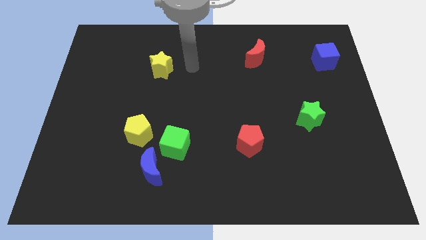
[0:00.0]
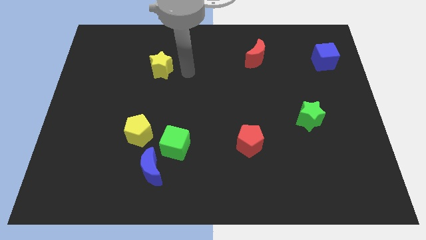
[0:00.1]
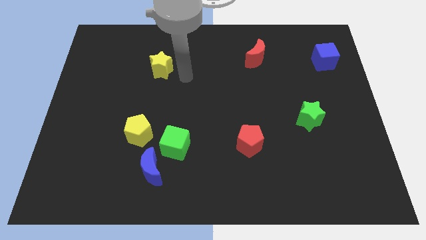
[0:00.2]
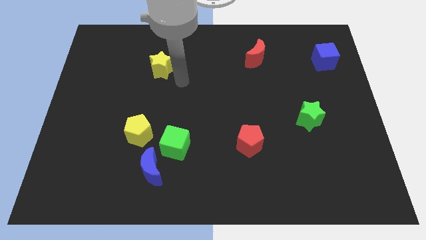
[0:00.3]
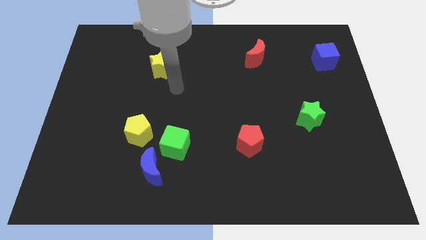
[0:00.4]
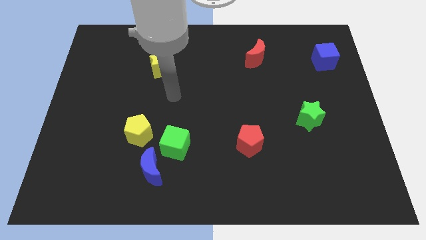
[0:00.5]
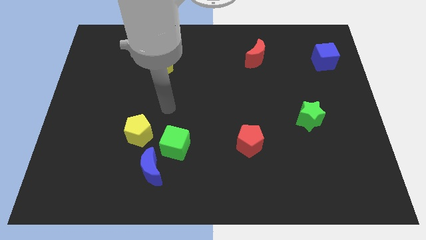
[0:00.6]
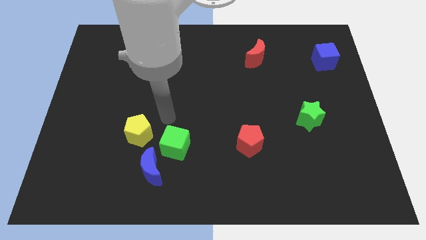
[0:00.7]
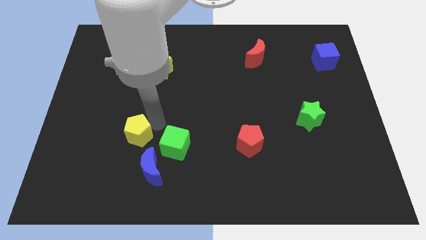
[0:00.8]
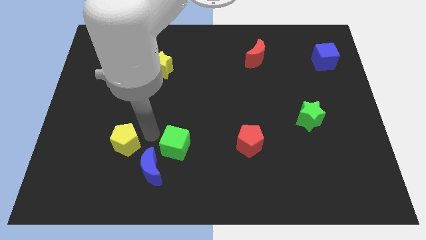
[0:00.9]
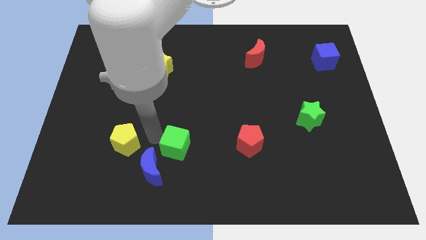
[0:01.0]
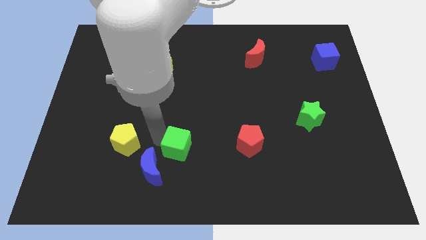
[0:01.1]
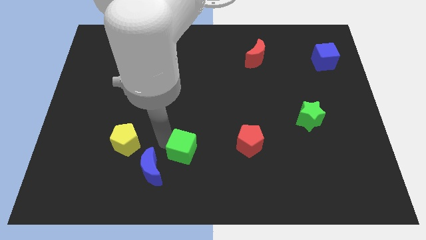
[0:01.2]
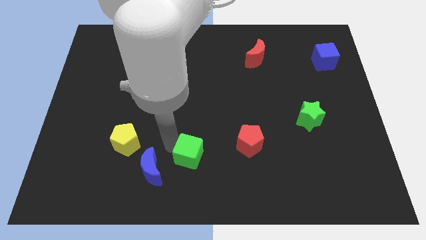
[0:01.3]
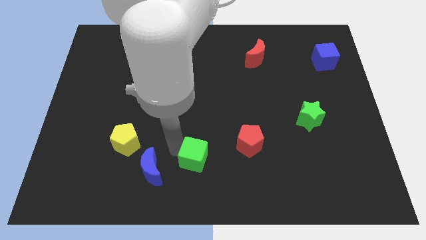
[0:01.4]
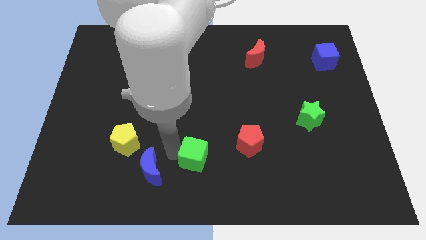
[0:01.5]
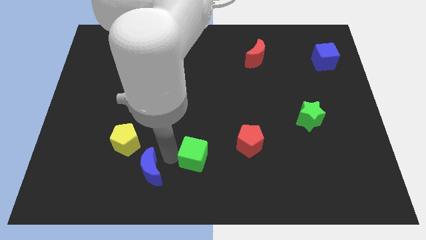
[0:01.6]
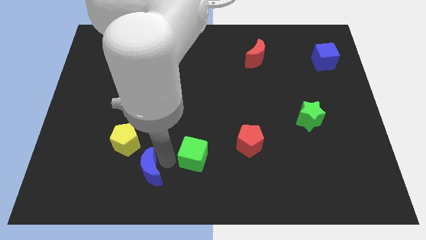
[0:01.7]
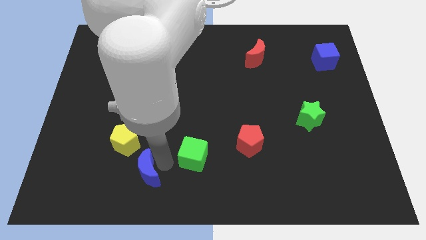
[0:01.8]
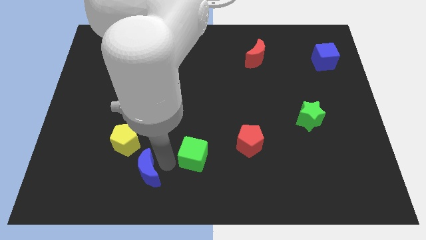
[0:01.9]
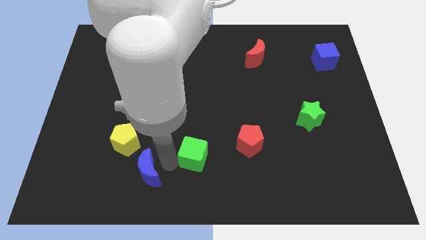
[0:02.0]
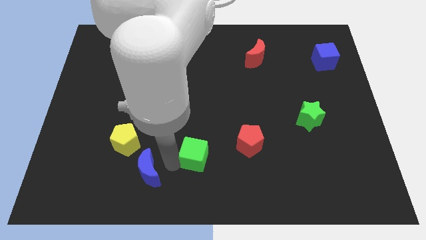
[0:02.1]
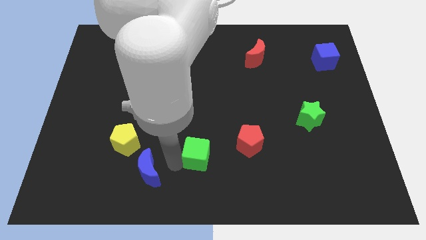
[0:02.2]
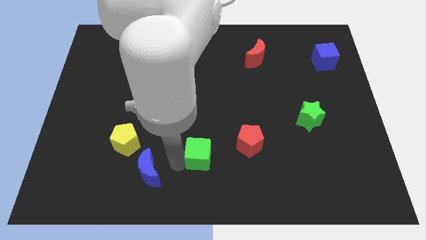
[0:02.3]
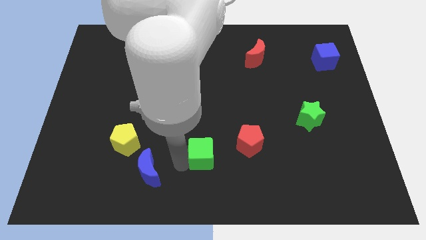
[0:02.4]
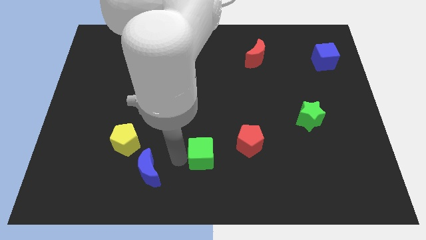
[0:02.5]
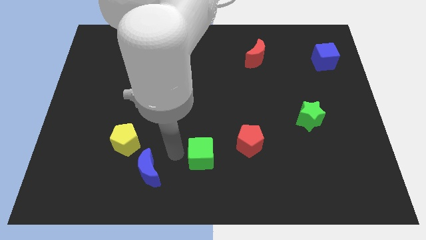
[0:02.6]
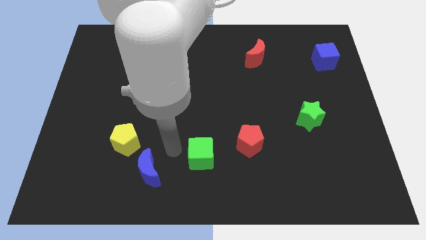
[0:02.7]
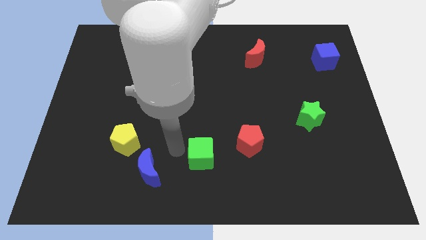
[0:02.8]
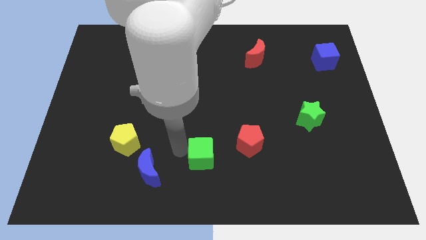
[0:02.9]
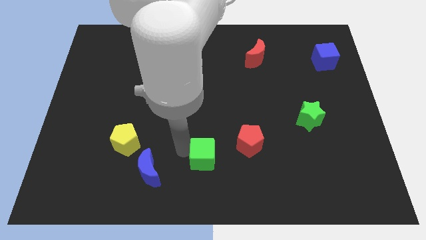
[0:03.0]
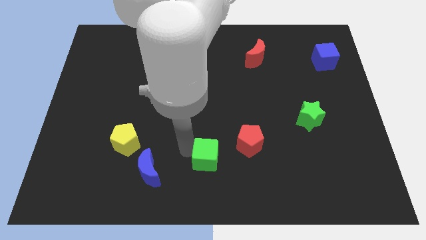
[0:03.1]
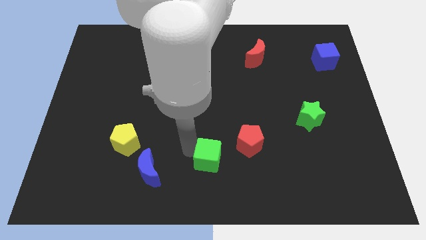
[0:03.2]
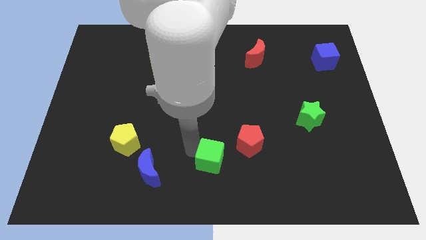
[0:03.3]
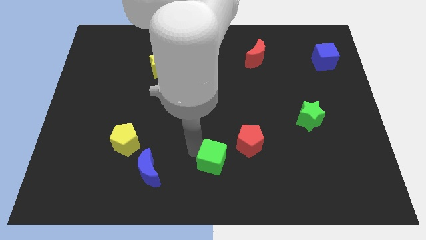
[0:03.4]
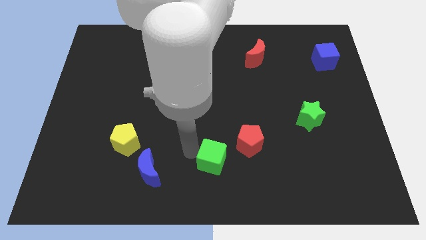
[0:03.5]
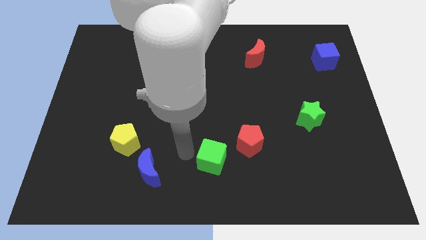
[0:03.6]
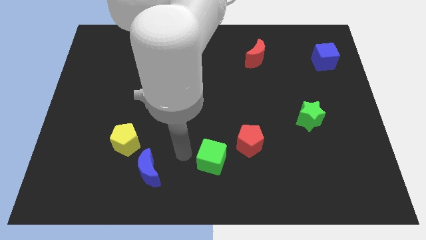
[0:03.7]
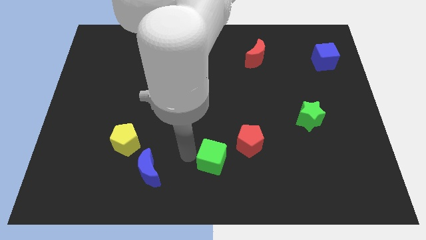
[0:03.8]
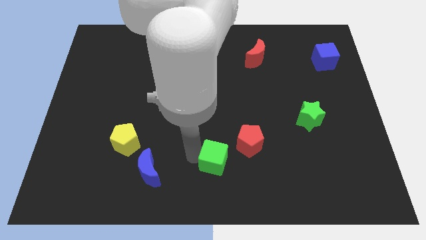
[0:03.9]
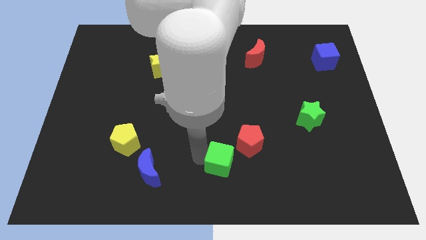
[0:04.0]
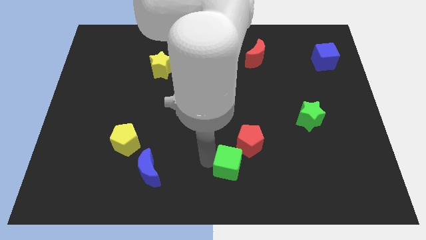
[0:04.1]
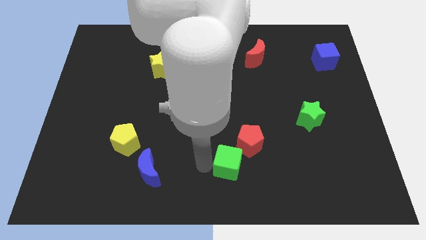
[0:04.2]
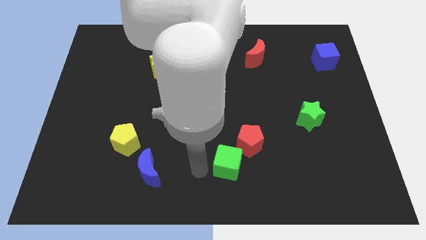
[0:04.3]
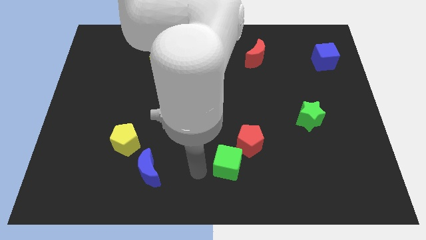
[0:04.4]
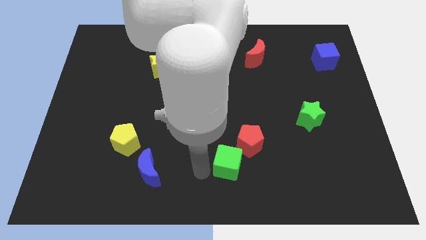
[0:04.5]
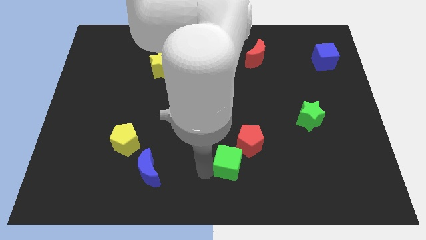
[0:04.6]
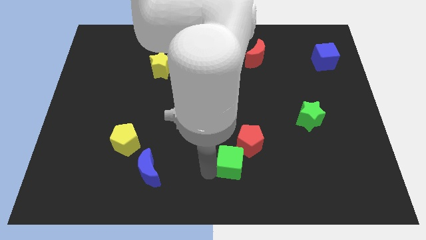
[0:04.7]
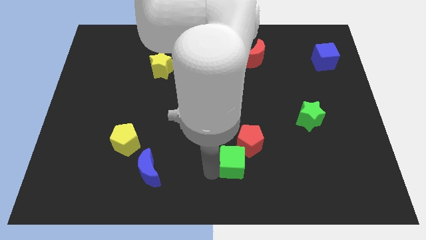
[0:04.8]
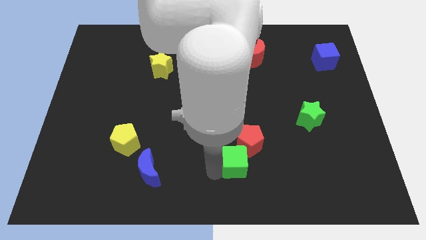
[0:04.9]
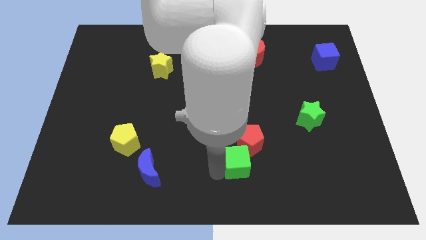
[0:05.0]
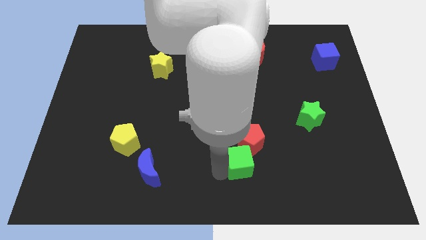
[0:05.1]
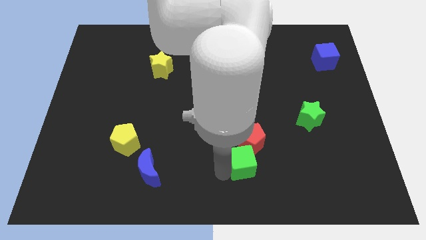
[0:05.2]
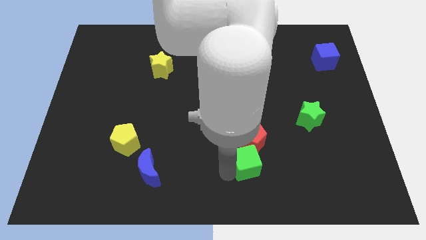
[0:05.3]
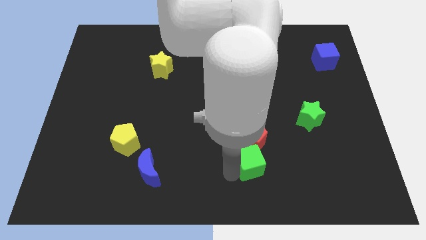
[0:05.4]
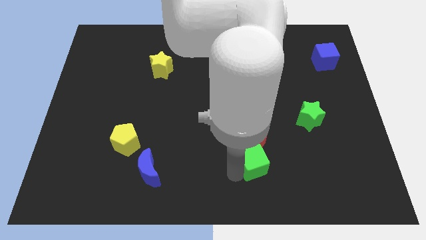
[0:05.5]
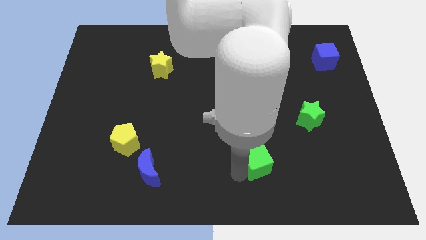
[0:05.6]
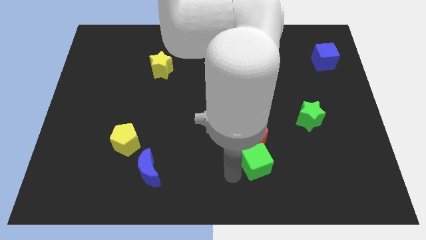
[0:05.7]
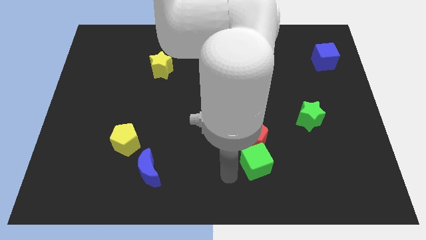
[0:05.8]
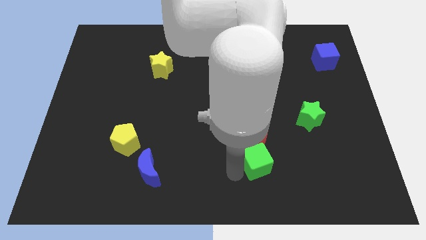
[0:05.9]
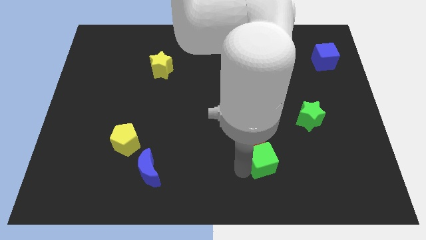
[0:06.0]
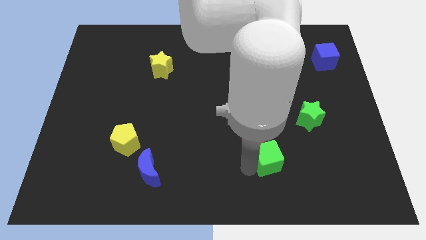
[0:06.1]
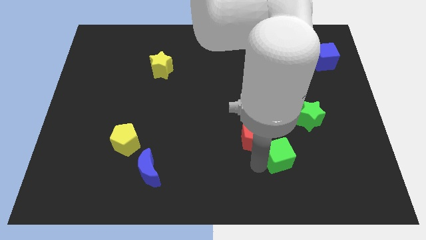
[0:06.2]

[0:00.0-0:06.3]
slide the green cube to the right

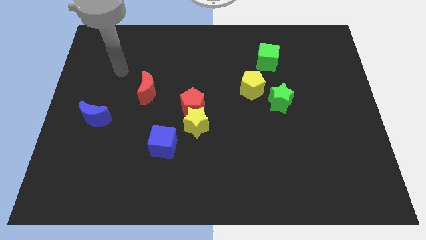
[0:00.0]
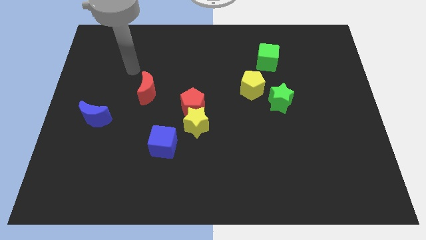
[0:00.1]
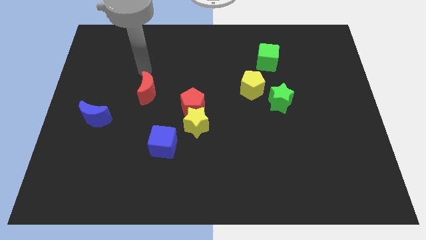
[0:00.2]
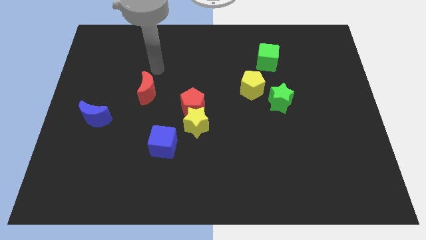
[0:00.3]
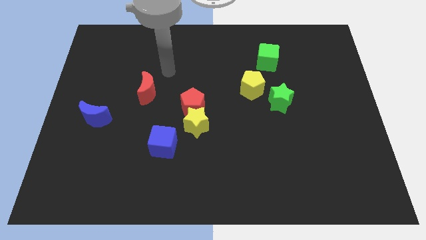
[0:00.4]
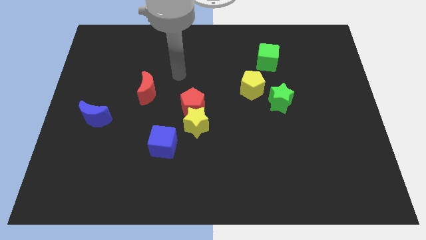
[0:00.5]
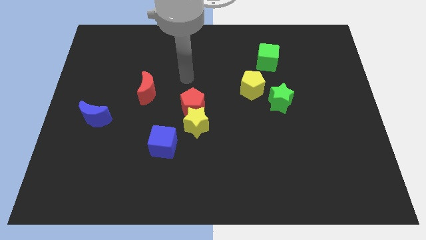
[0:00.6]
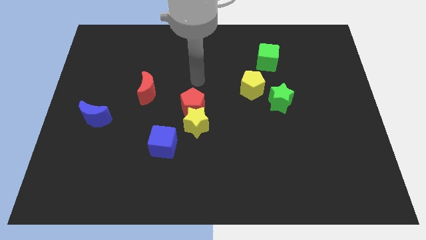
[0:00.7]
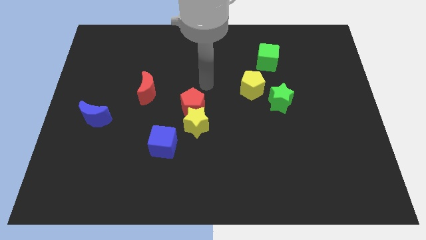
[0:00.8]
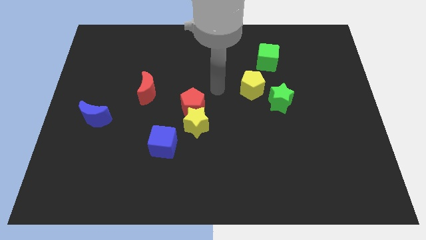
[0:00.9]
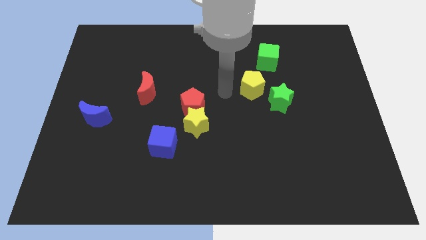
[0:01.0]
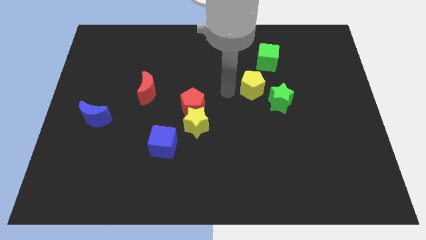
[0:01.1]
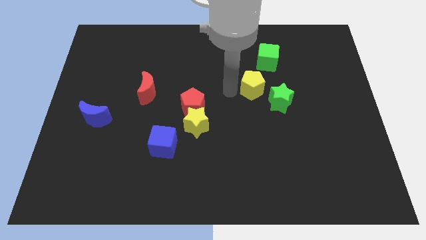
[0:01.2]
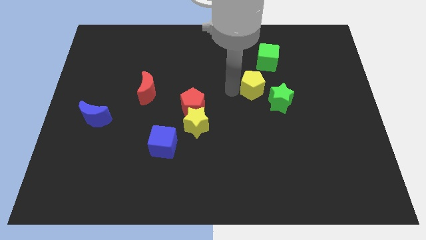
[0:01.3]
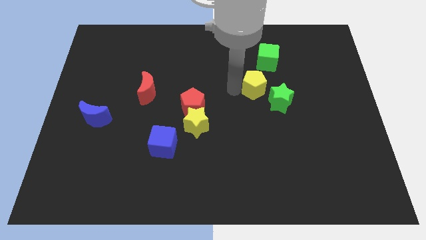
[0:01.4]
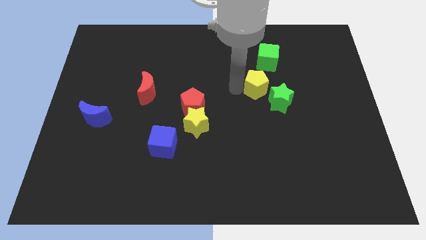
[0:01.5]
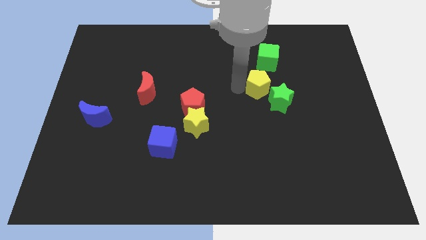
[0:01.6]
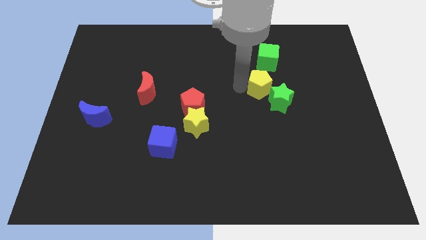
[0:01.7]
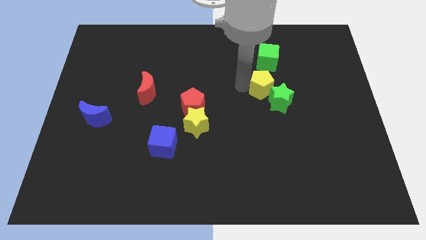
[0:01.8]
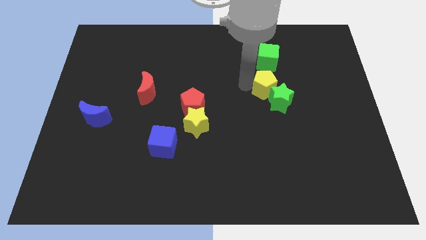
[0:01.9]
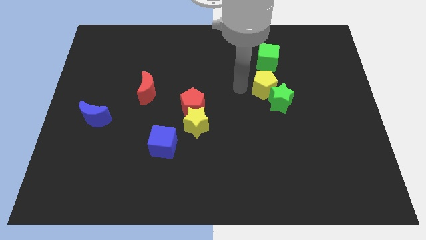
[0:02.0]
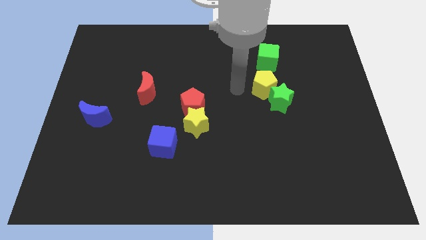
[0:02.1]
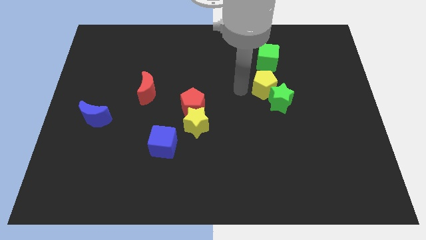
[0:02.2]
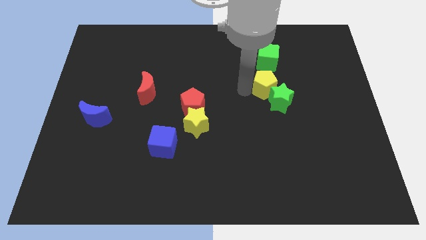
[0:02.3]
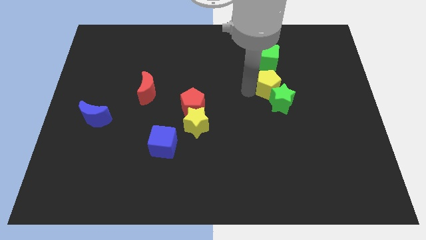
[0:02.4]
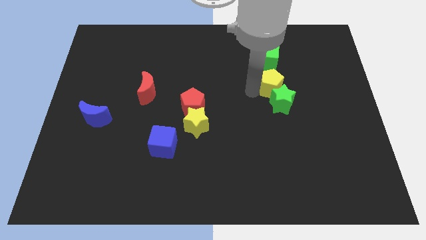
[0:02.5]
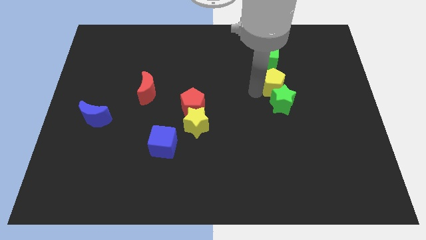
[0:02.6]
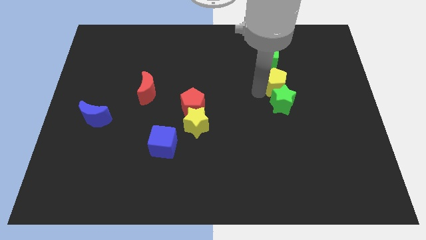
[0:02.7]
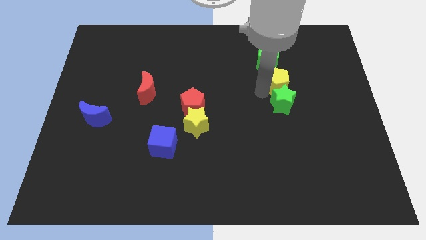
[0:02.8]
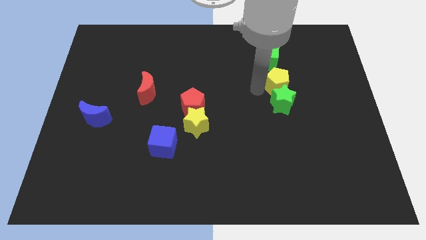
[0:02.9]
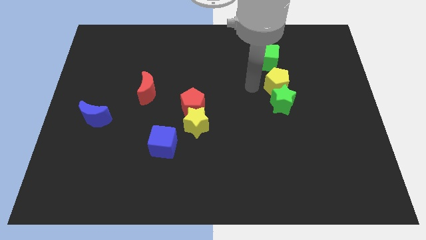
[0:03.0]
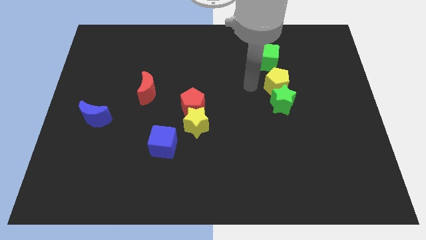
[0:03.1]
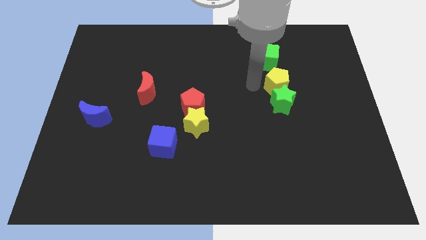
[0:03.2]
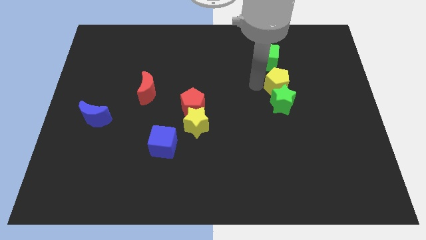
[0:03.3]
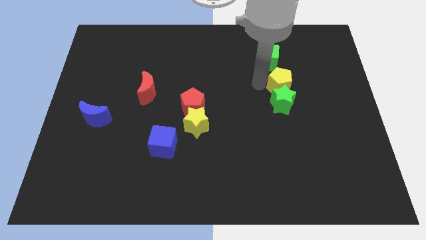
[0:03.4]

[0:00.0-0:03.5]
slightly slide the yellow pentagon right
